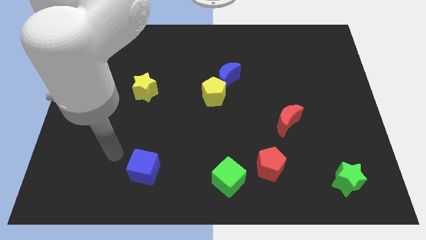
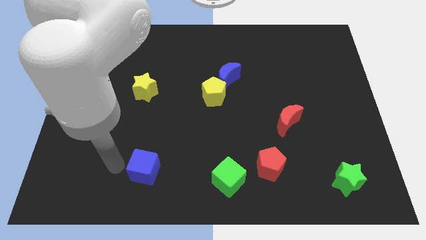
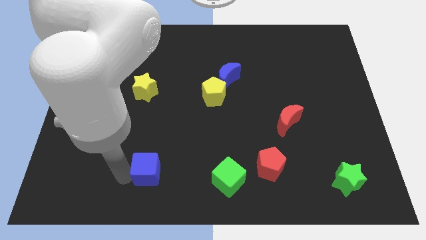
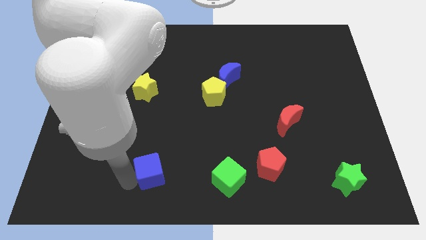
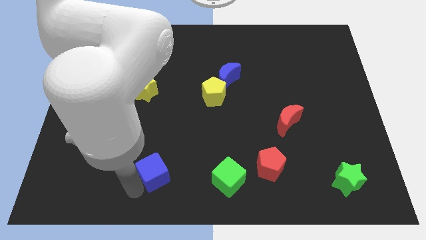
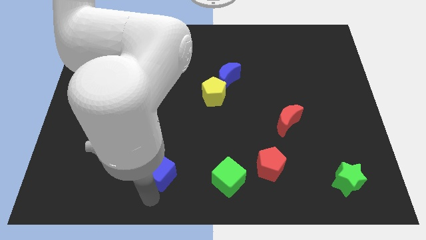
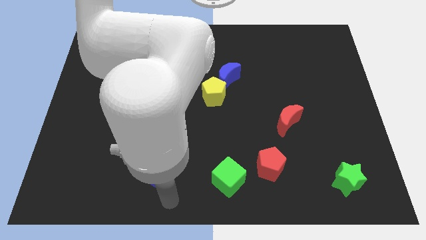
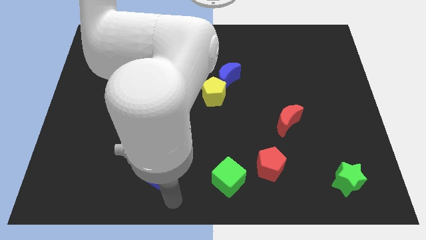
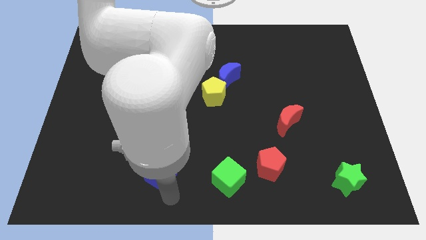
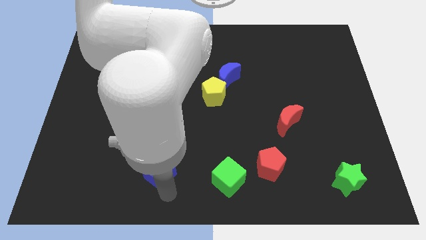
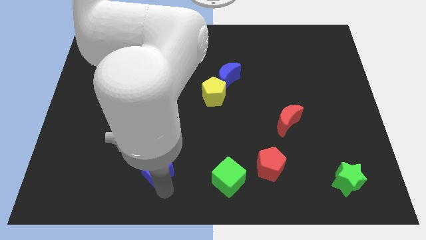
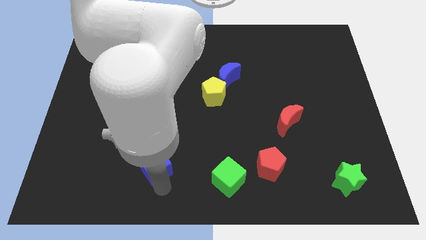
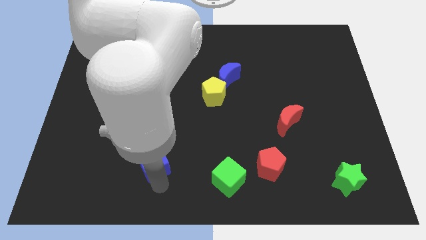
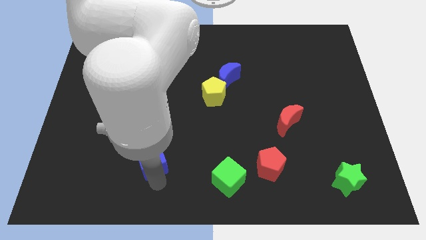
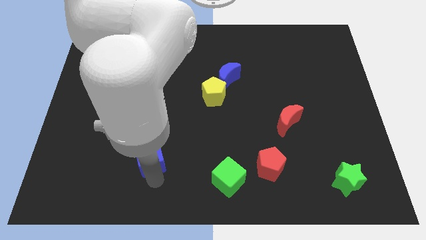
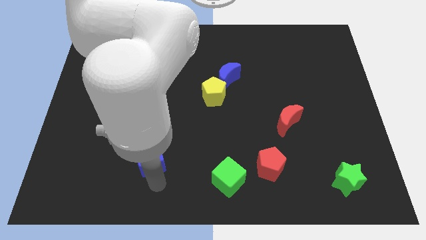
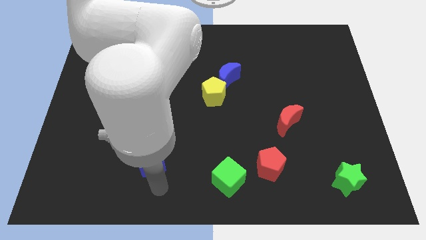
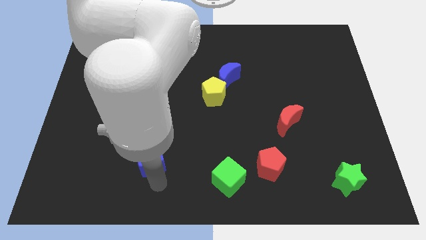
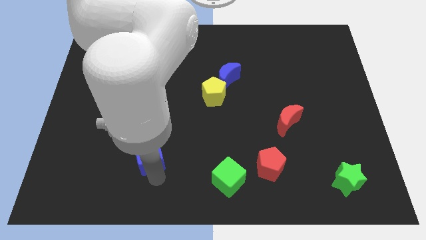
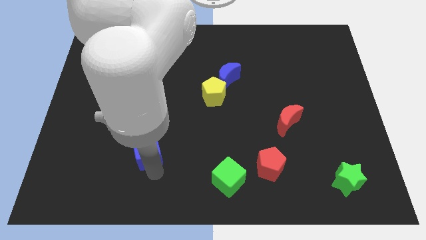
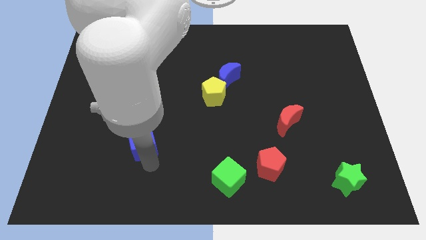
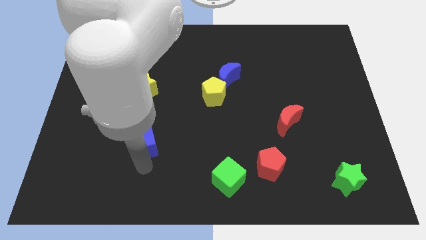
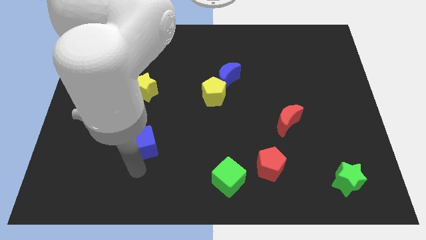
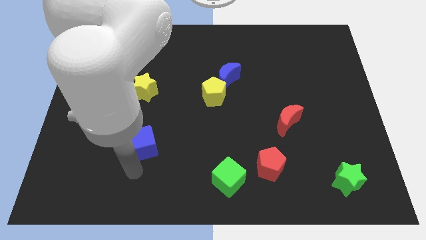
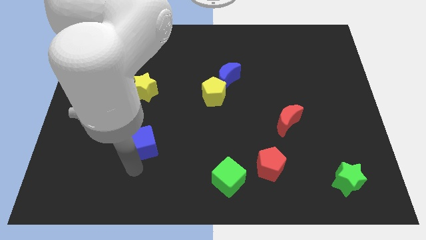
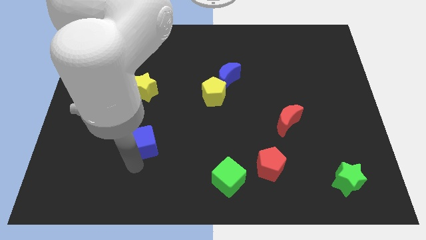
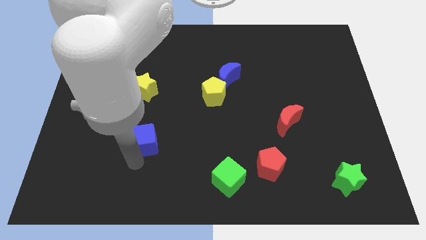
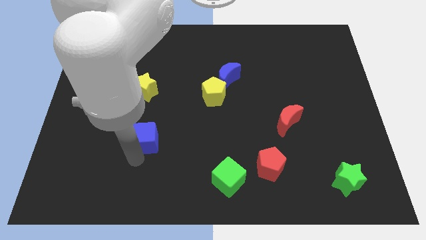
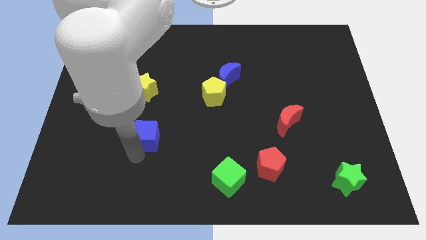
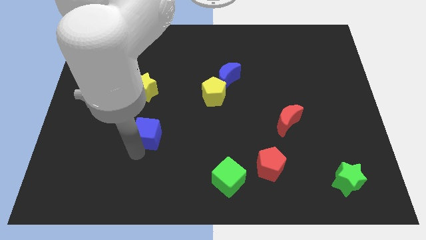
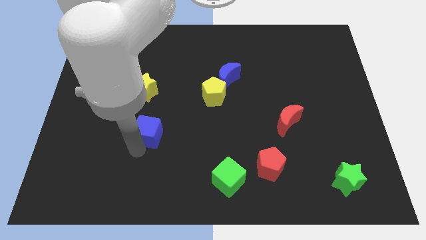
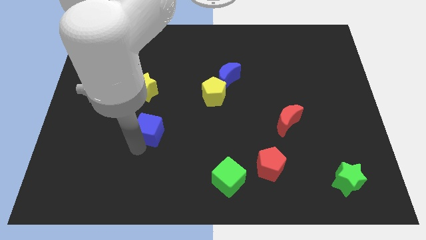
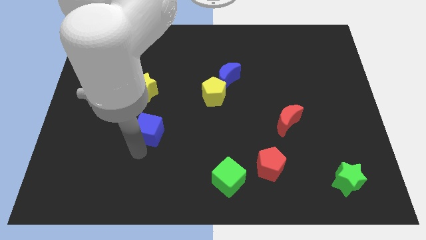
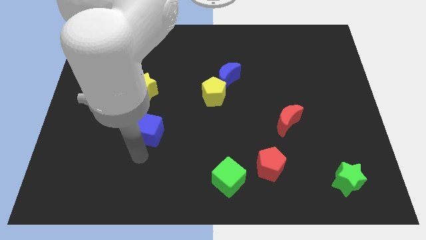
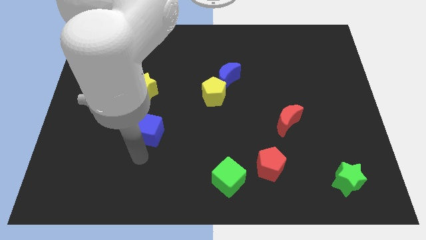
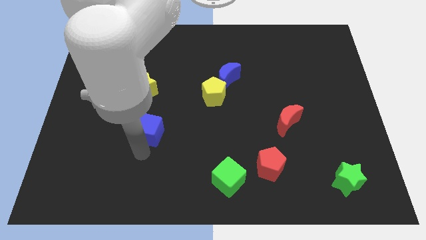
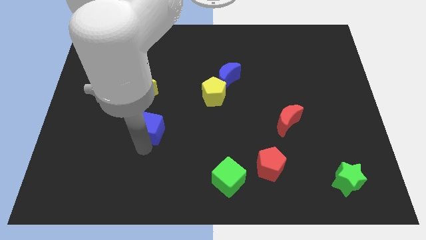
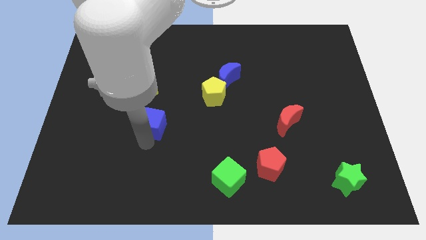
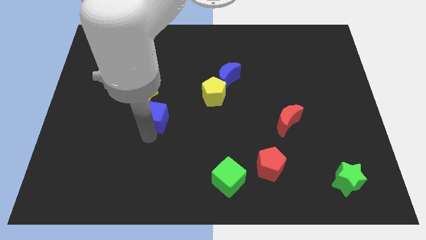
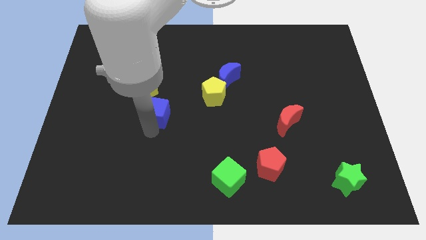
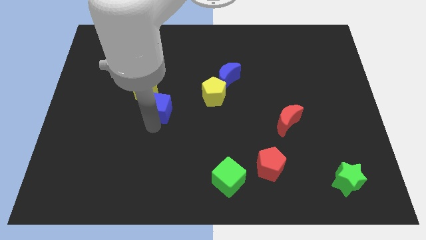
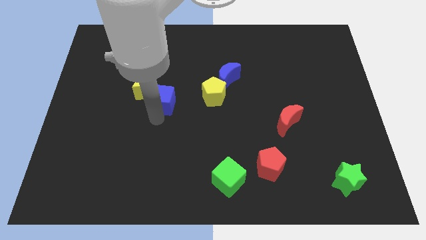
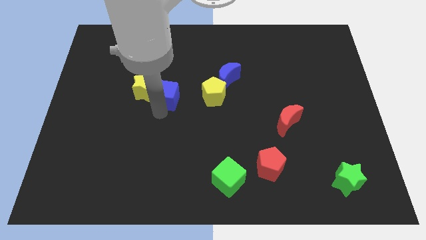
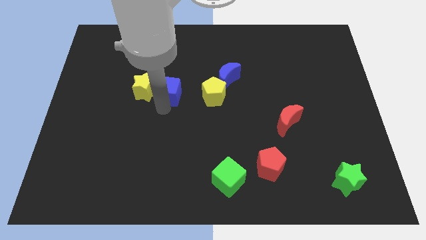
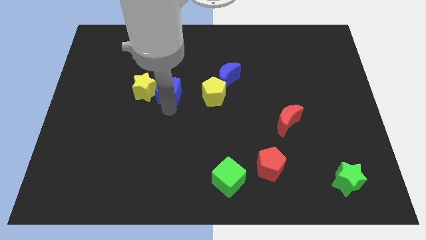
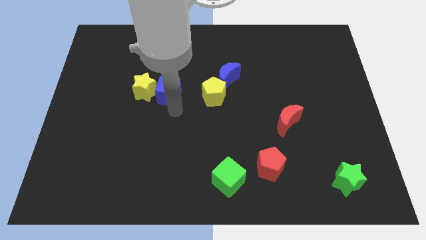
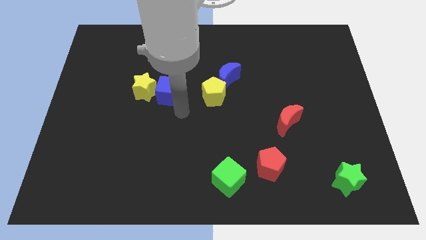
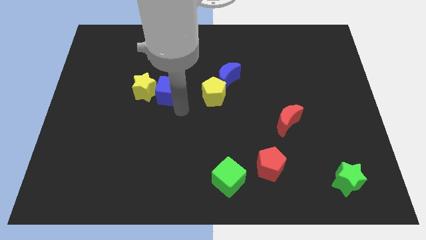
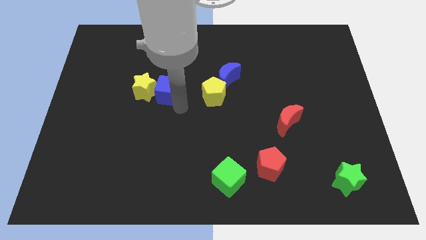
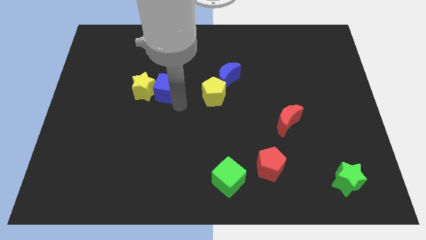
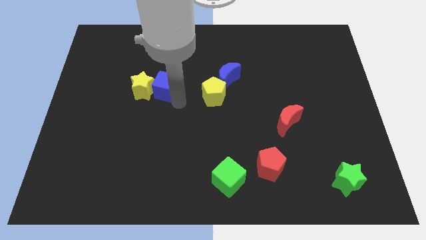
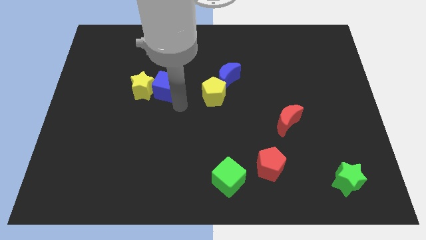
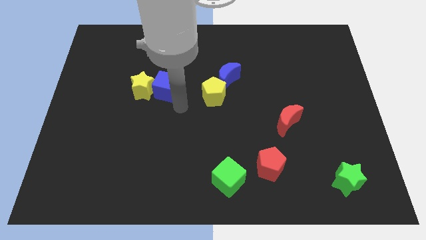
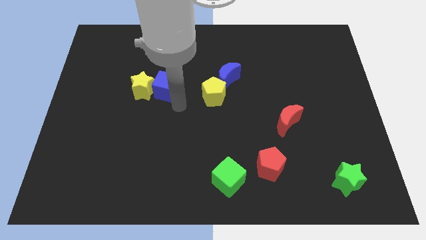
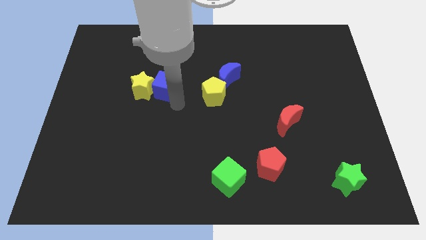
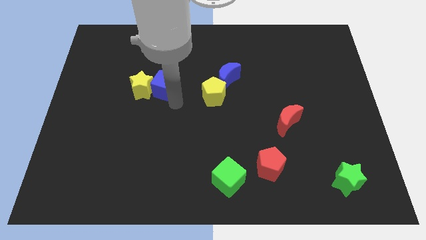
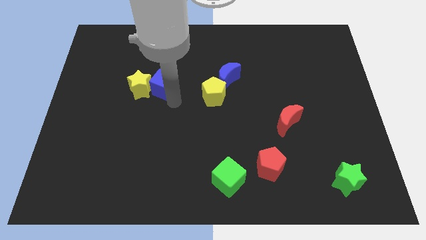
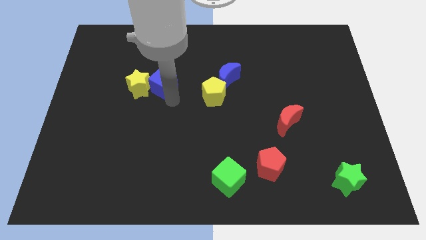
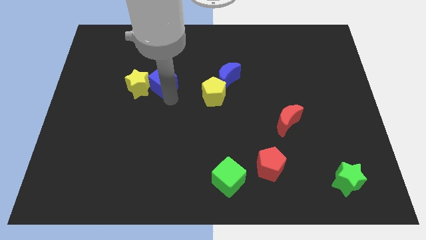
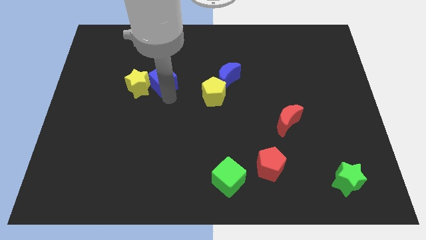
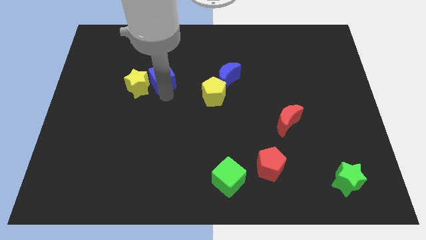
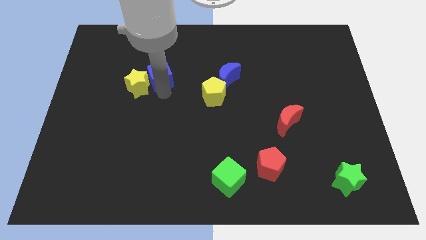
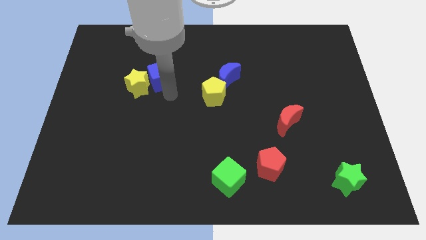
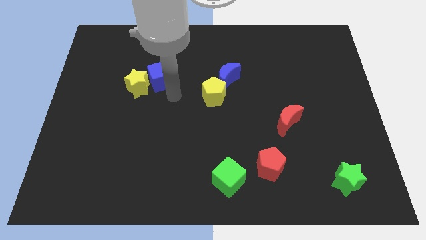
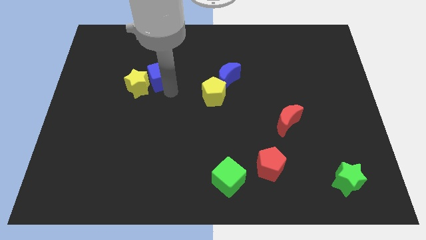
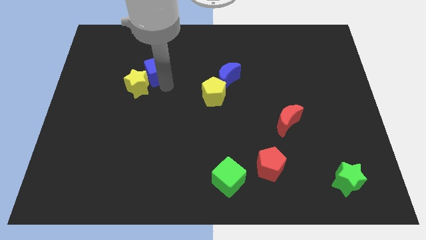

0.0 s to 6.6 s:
put the blue cube above the yellow star
